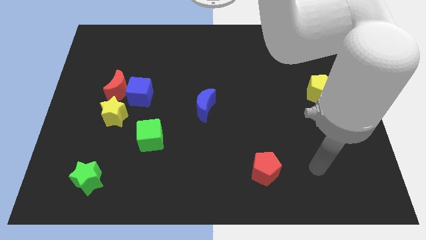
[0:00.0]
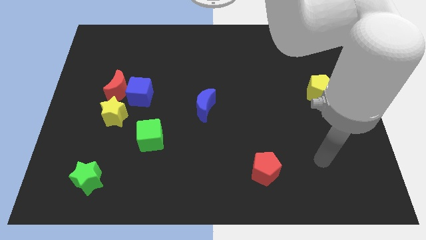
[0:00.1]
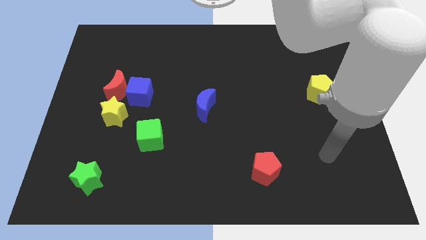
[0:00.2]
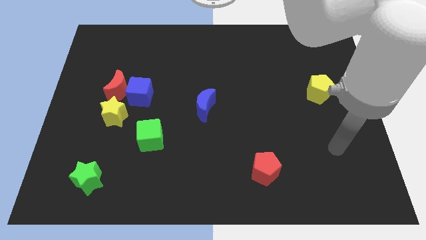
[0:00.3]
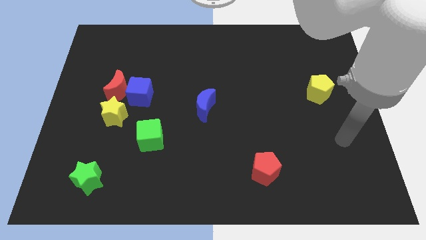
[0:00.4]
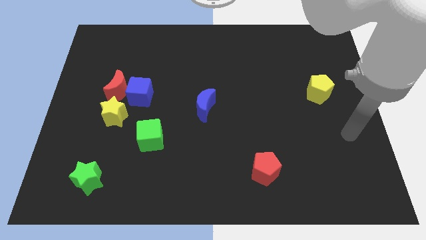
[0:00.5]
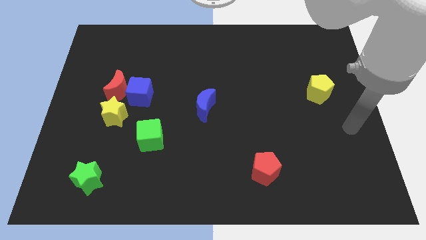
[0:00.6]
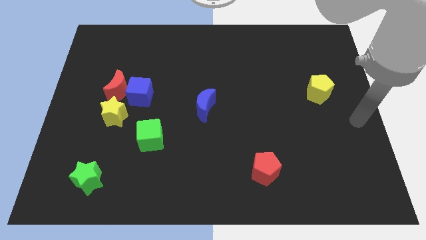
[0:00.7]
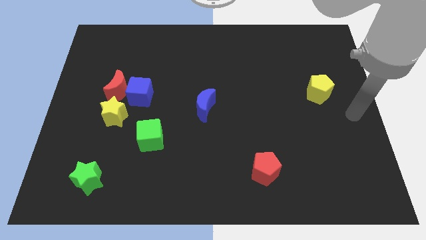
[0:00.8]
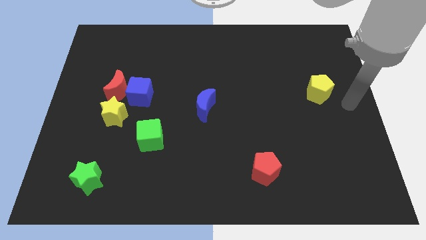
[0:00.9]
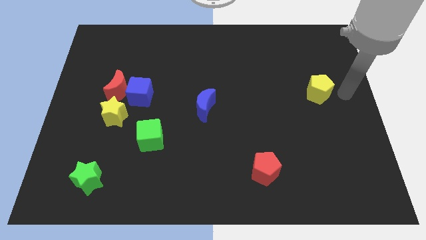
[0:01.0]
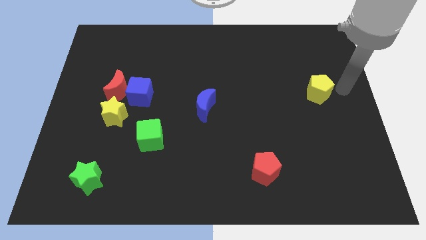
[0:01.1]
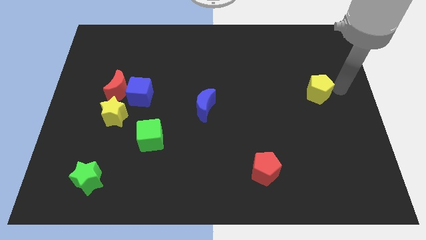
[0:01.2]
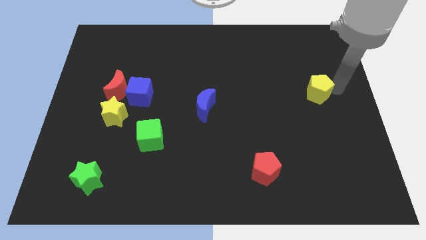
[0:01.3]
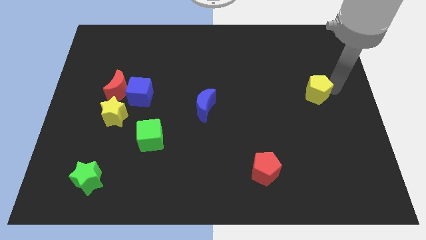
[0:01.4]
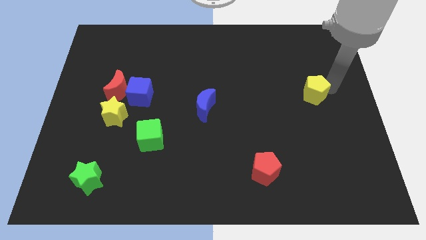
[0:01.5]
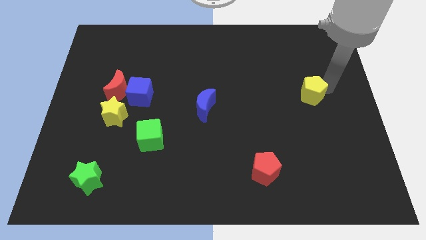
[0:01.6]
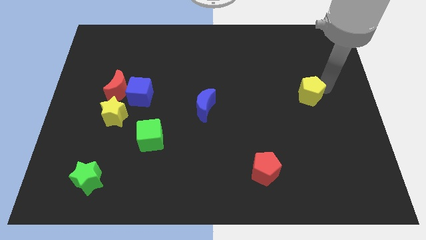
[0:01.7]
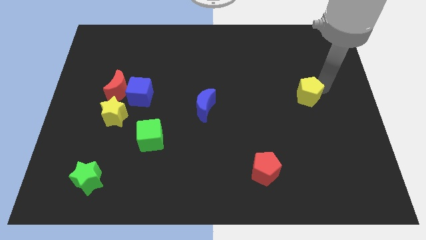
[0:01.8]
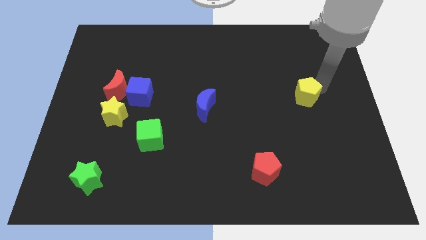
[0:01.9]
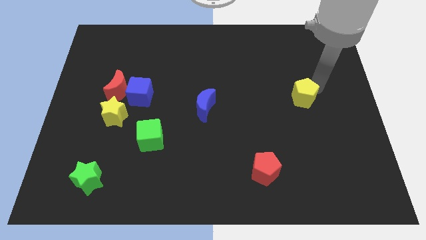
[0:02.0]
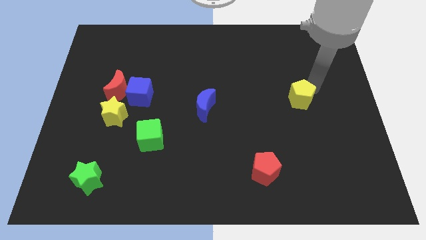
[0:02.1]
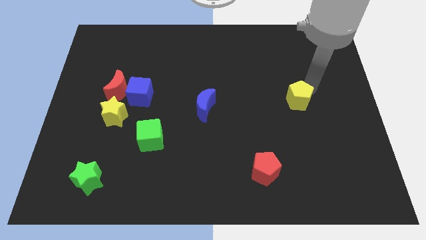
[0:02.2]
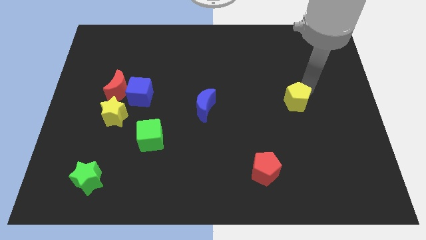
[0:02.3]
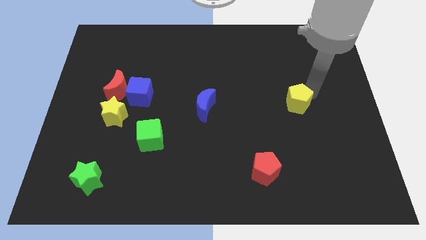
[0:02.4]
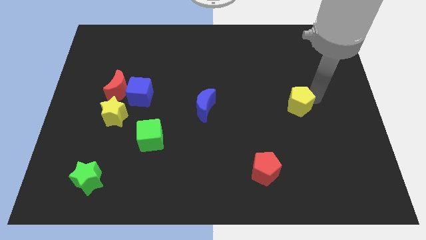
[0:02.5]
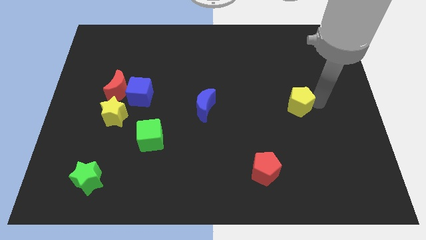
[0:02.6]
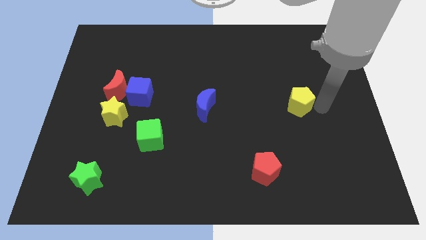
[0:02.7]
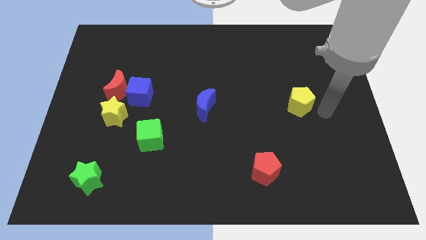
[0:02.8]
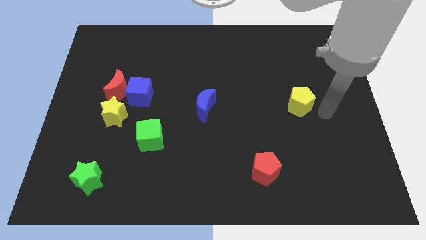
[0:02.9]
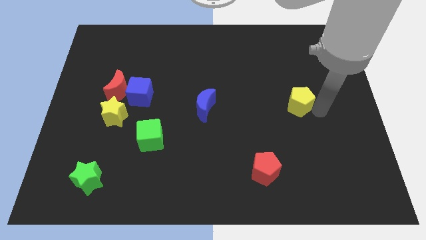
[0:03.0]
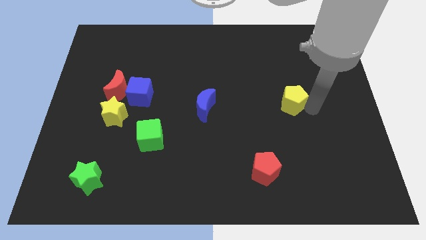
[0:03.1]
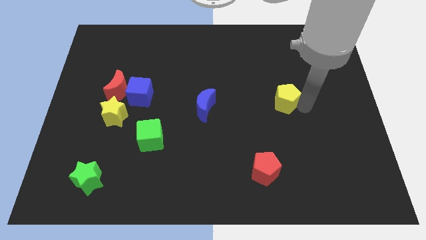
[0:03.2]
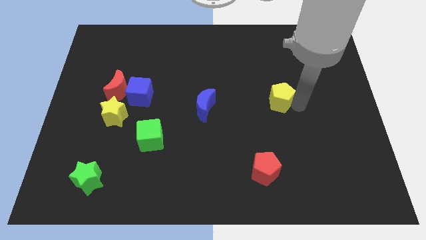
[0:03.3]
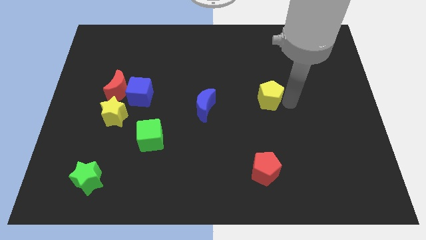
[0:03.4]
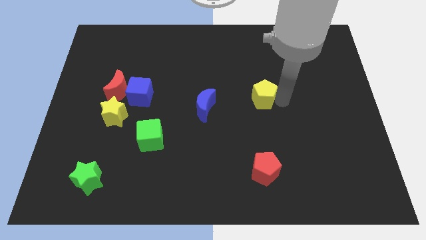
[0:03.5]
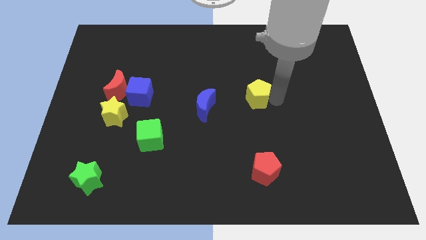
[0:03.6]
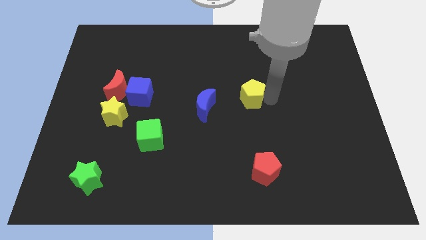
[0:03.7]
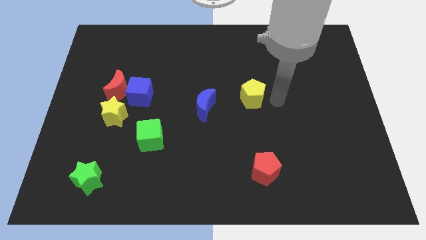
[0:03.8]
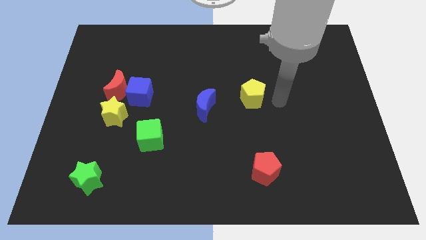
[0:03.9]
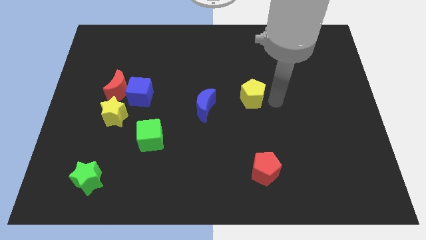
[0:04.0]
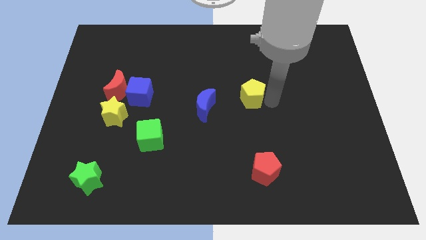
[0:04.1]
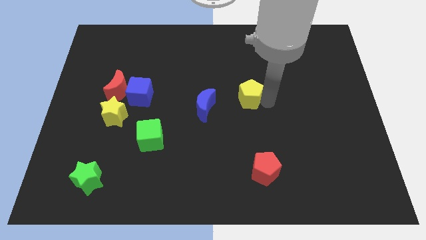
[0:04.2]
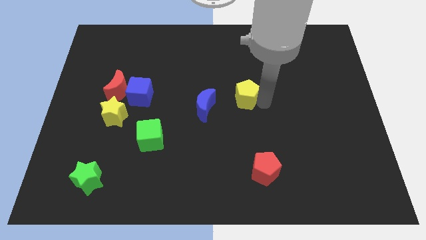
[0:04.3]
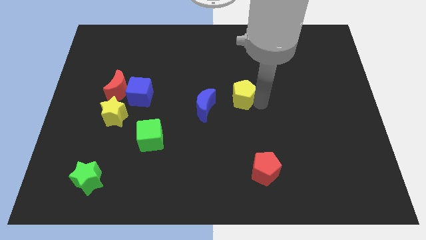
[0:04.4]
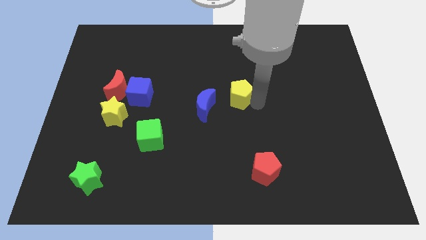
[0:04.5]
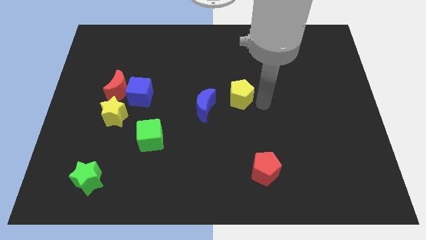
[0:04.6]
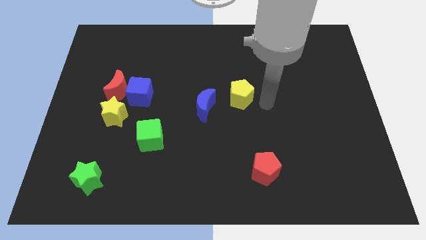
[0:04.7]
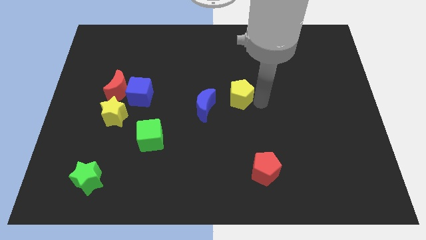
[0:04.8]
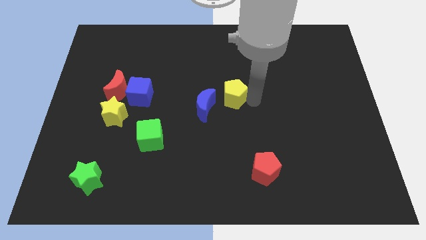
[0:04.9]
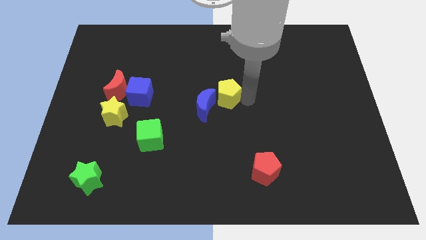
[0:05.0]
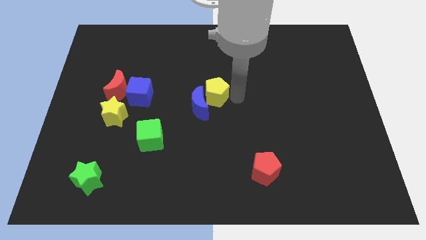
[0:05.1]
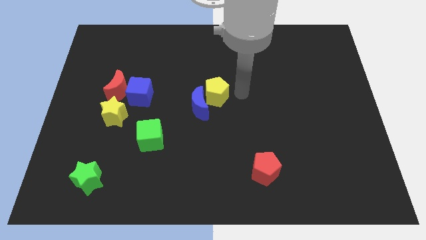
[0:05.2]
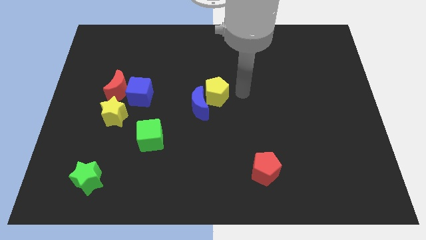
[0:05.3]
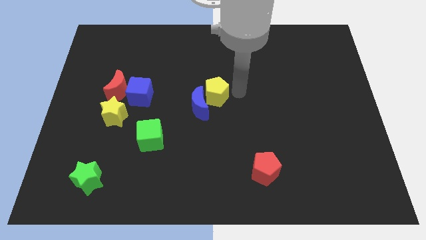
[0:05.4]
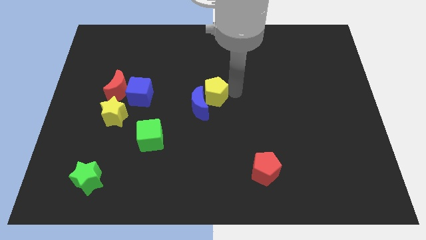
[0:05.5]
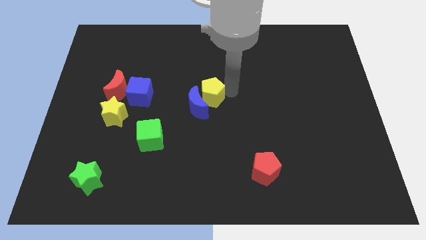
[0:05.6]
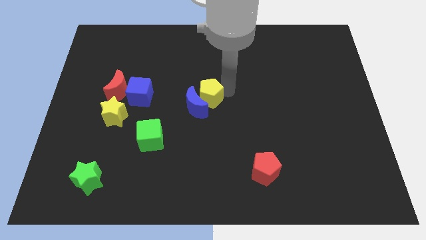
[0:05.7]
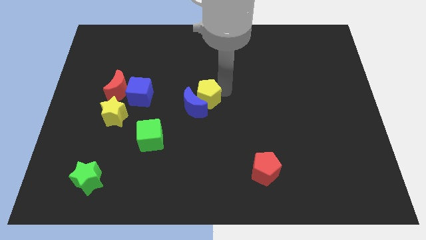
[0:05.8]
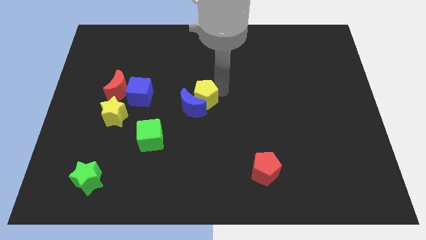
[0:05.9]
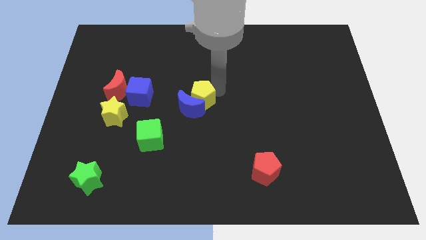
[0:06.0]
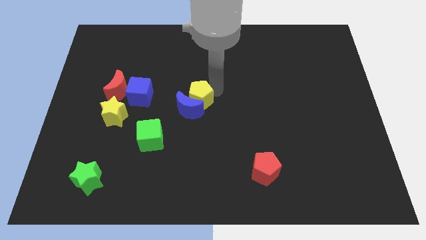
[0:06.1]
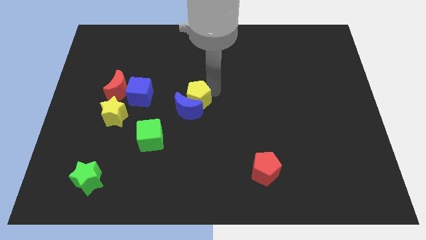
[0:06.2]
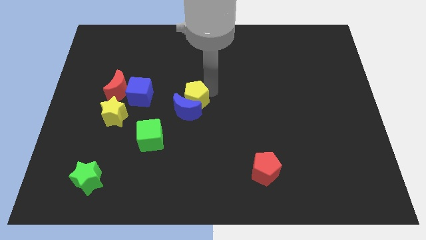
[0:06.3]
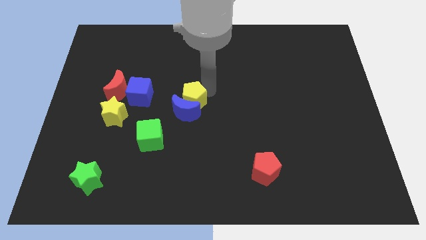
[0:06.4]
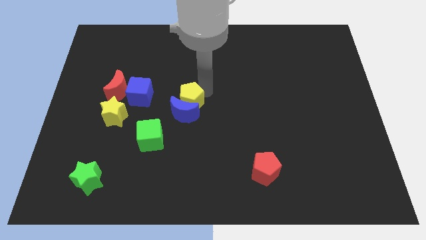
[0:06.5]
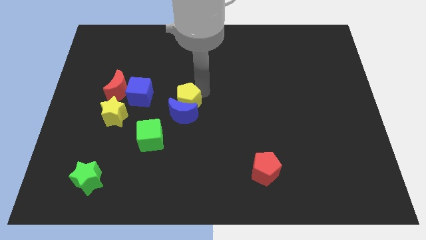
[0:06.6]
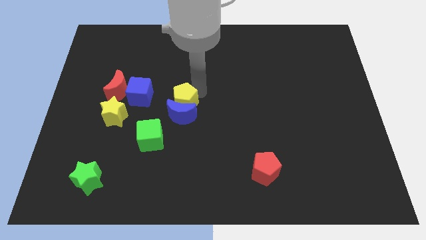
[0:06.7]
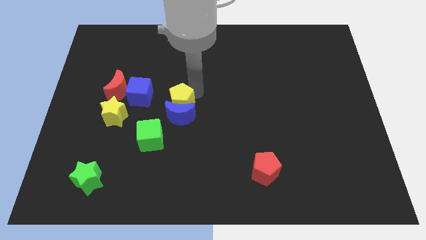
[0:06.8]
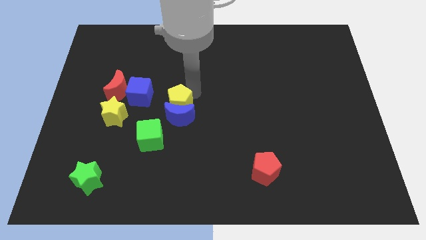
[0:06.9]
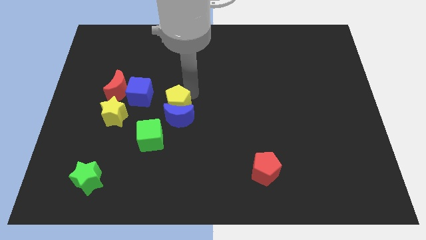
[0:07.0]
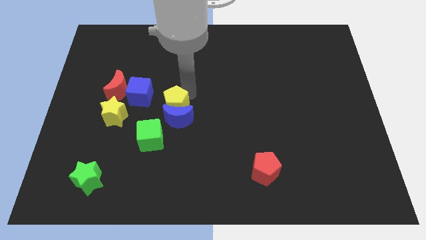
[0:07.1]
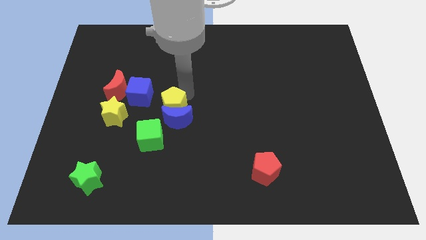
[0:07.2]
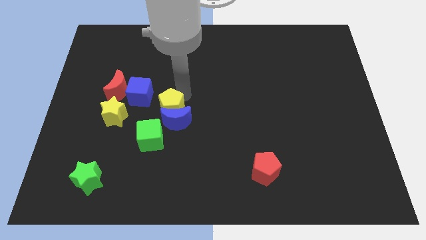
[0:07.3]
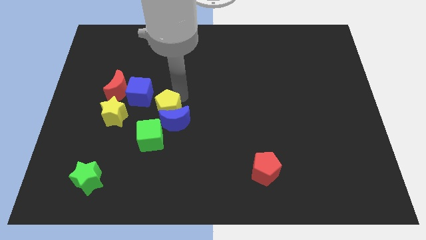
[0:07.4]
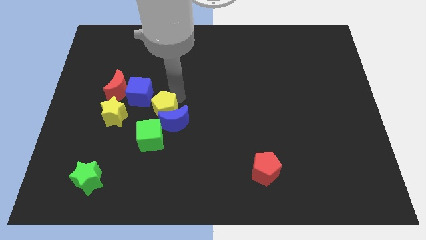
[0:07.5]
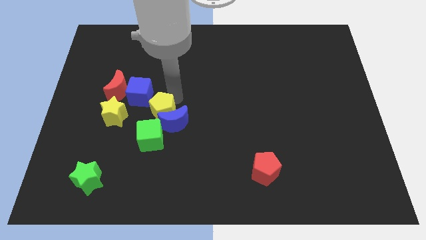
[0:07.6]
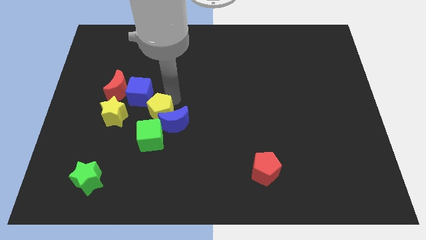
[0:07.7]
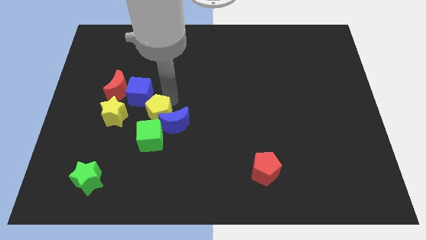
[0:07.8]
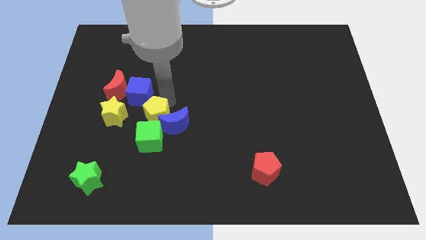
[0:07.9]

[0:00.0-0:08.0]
put the yellow pentagon to the bottom right of the red moon

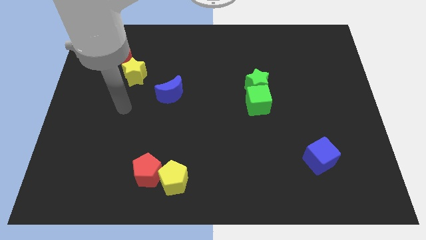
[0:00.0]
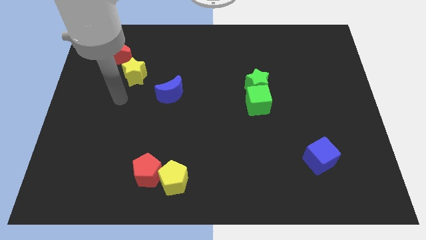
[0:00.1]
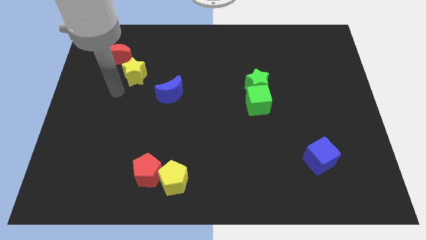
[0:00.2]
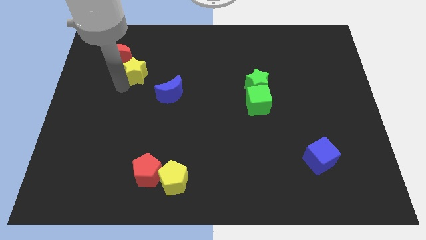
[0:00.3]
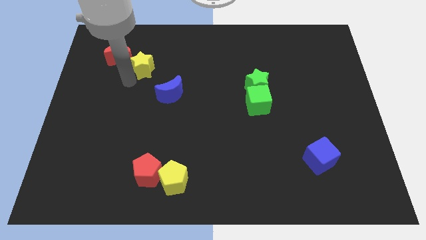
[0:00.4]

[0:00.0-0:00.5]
put the yellow star just right of the red moon
